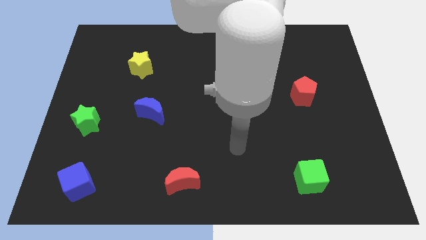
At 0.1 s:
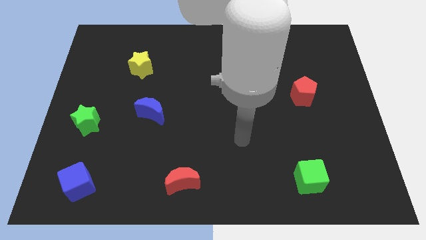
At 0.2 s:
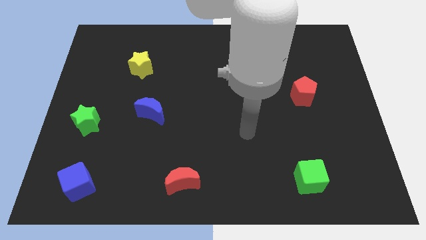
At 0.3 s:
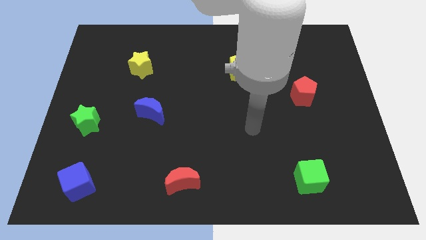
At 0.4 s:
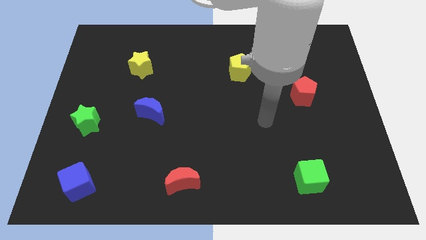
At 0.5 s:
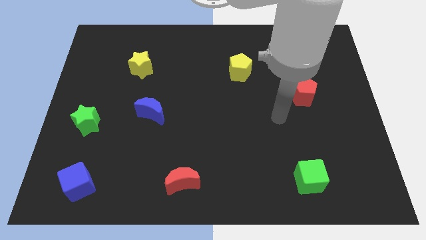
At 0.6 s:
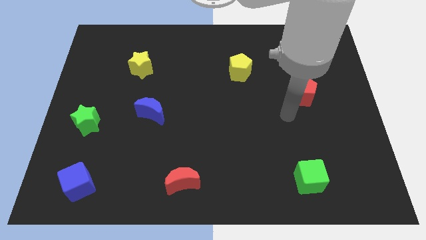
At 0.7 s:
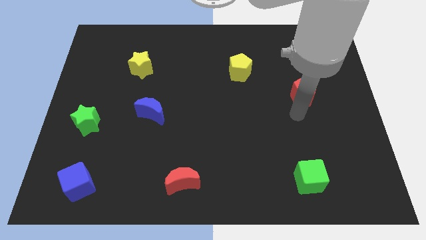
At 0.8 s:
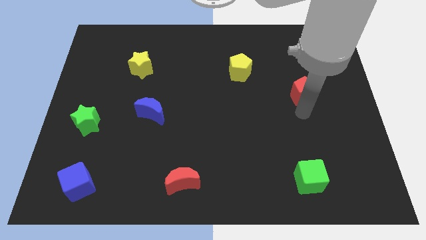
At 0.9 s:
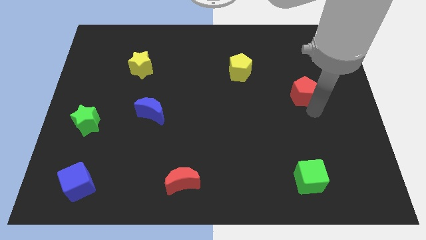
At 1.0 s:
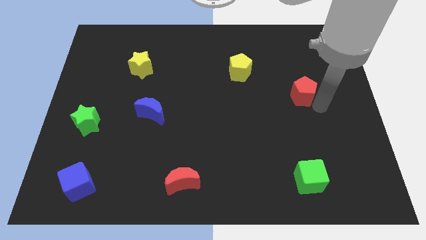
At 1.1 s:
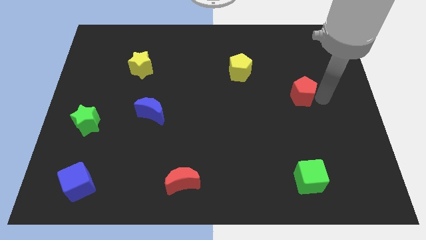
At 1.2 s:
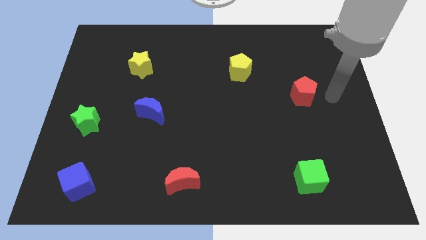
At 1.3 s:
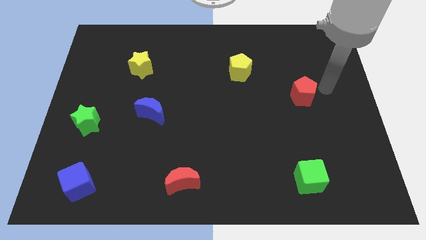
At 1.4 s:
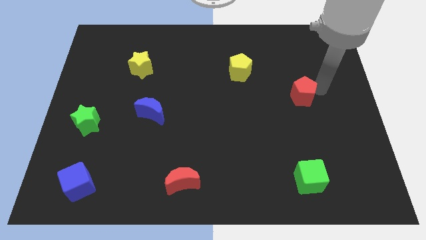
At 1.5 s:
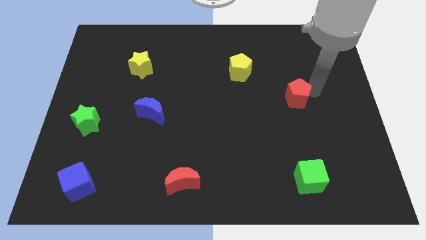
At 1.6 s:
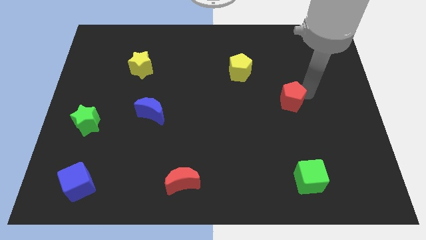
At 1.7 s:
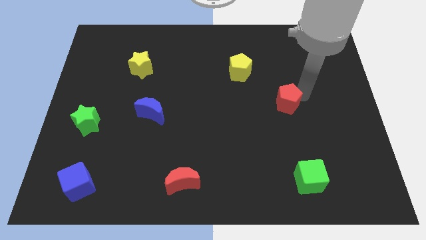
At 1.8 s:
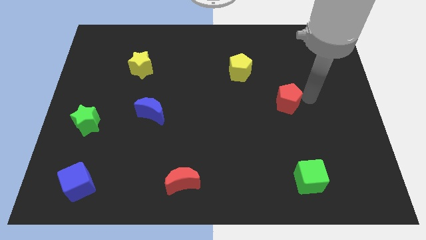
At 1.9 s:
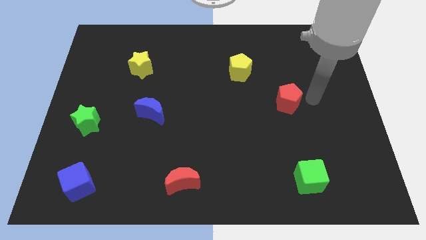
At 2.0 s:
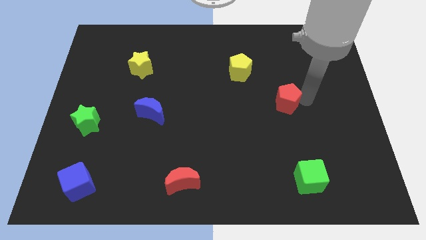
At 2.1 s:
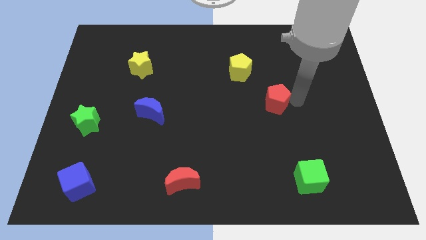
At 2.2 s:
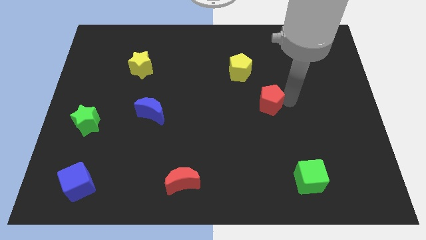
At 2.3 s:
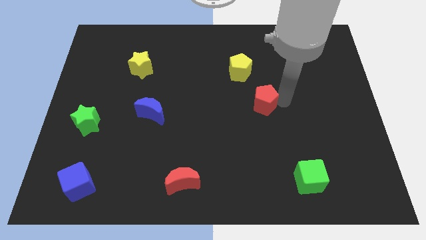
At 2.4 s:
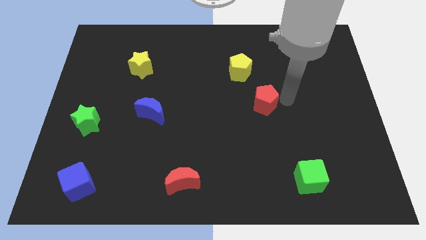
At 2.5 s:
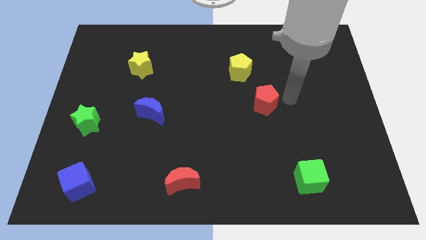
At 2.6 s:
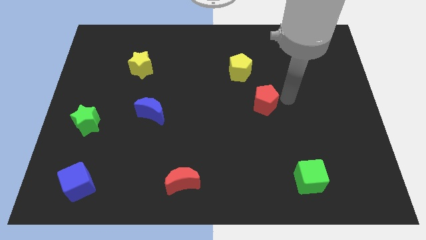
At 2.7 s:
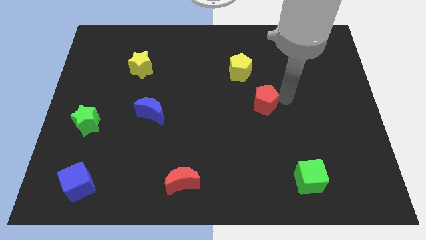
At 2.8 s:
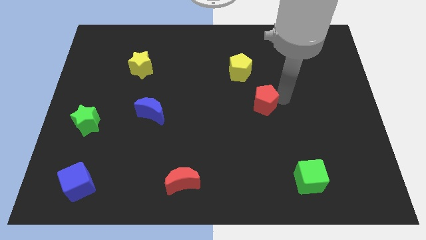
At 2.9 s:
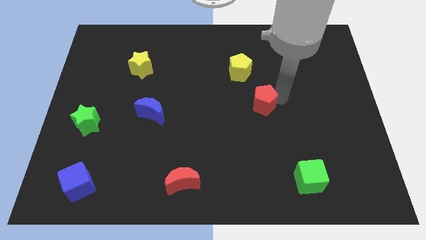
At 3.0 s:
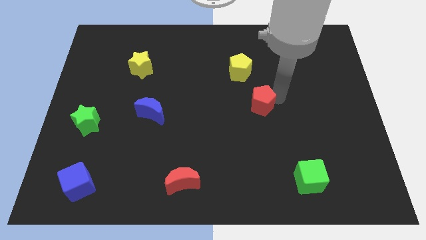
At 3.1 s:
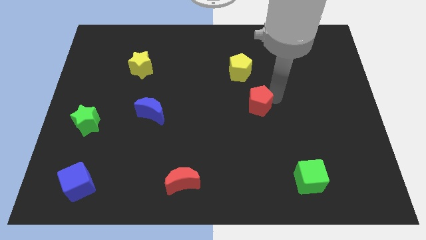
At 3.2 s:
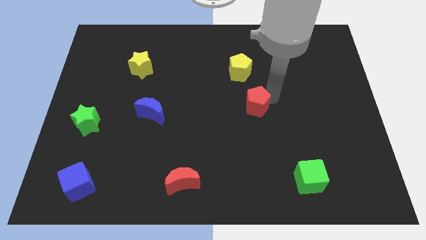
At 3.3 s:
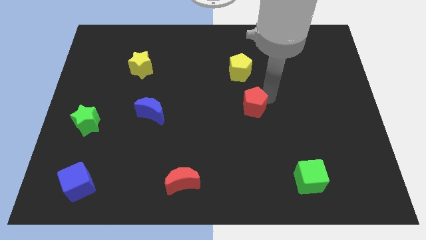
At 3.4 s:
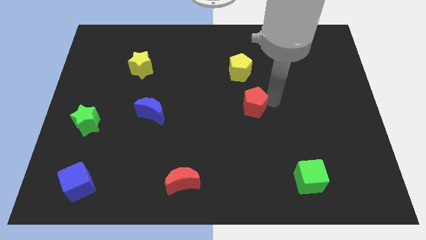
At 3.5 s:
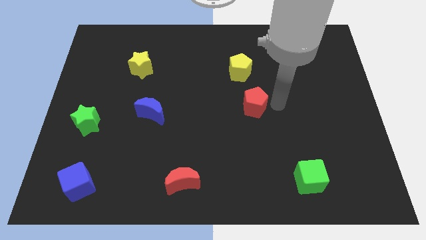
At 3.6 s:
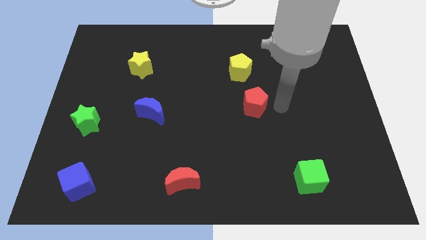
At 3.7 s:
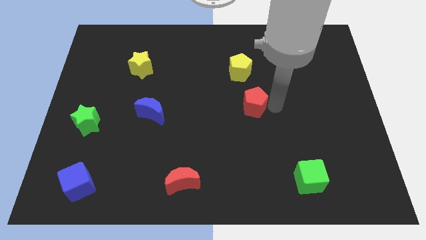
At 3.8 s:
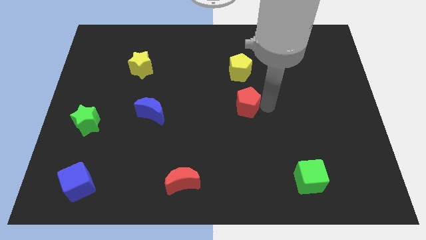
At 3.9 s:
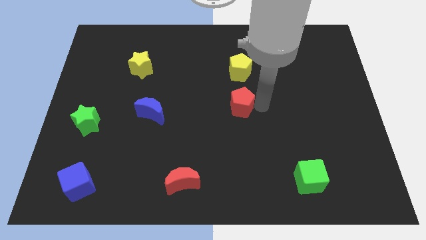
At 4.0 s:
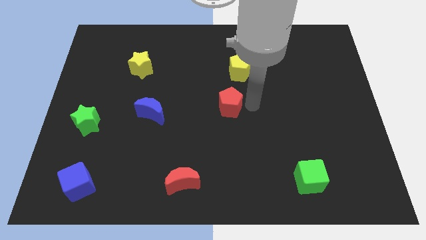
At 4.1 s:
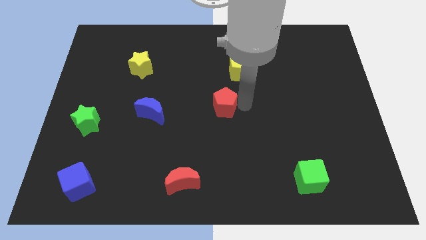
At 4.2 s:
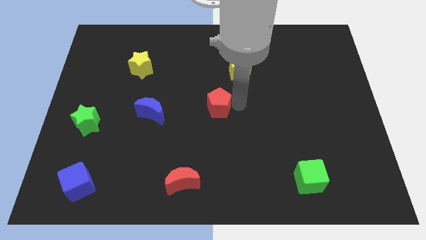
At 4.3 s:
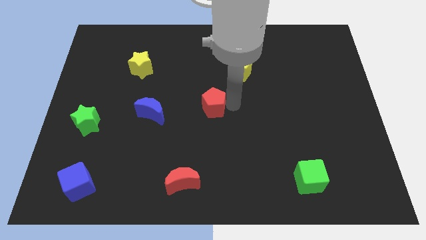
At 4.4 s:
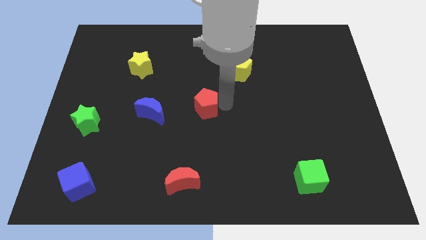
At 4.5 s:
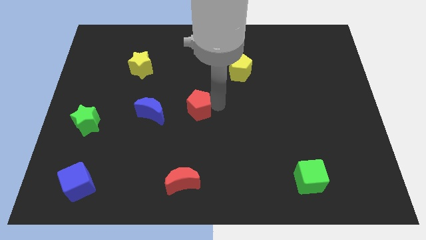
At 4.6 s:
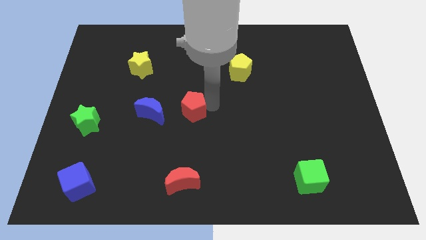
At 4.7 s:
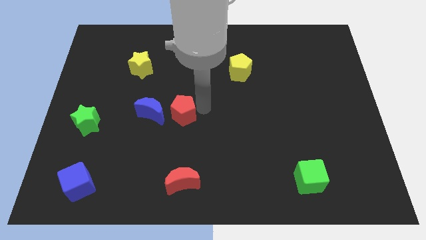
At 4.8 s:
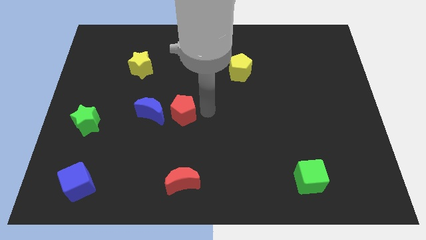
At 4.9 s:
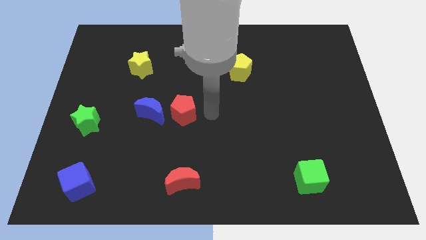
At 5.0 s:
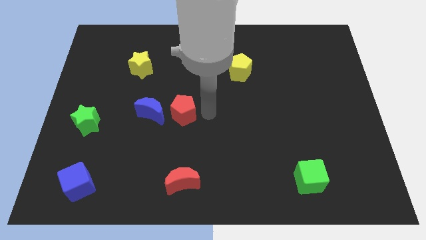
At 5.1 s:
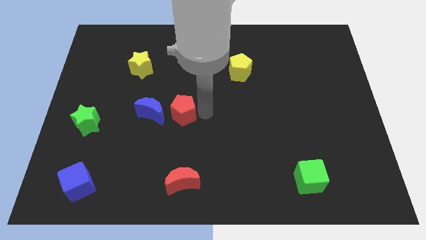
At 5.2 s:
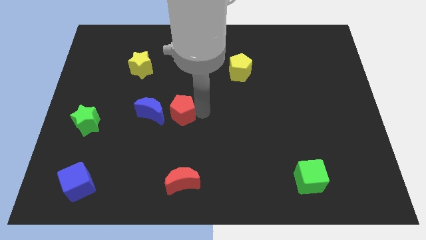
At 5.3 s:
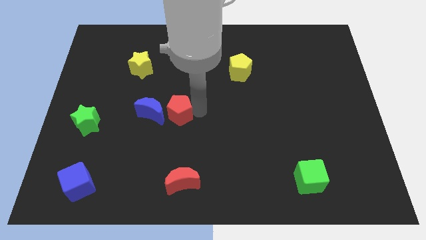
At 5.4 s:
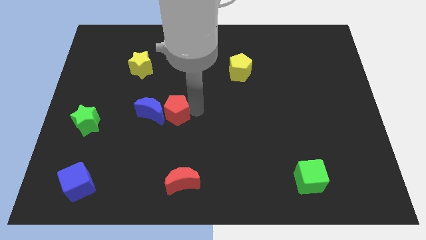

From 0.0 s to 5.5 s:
push the red pentagon to the blue moon

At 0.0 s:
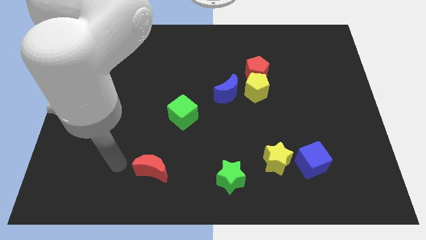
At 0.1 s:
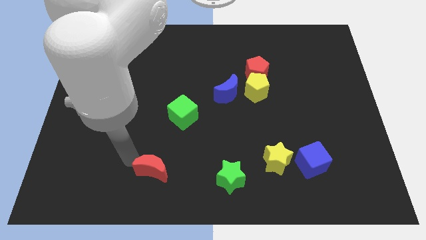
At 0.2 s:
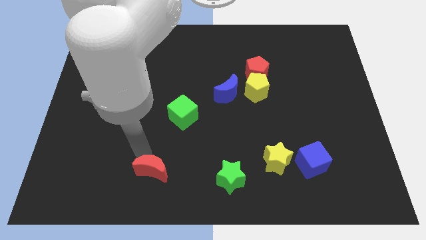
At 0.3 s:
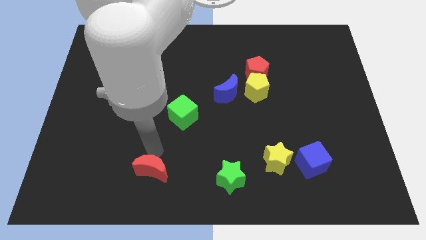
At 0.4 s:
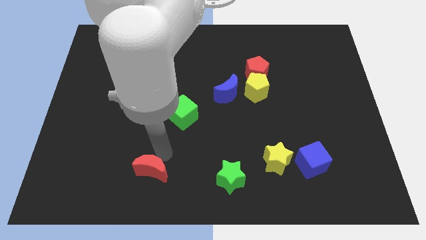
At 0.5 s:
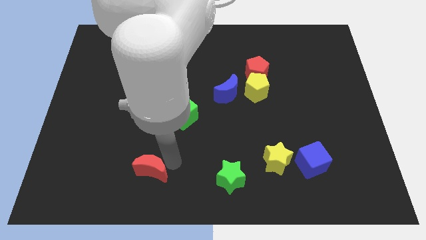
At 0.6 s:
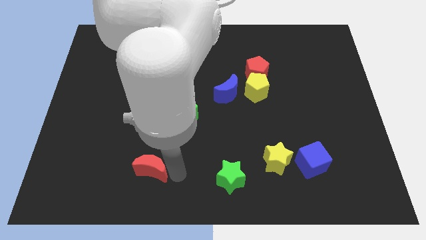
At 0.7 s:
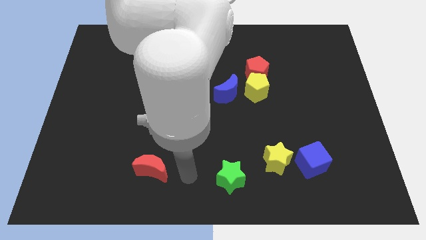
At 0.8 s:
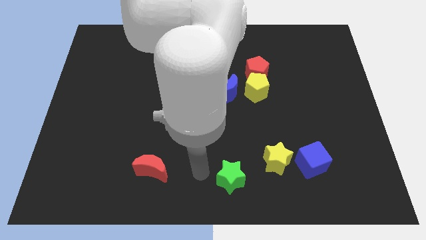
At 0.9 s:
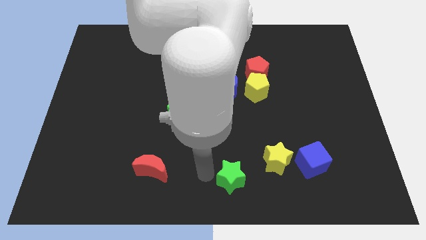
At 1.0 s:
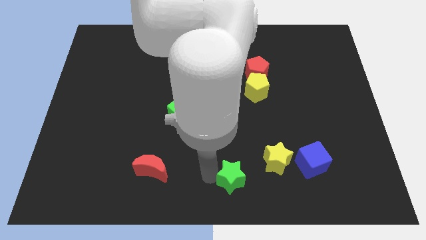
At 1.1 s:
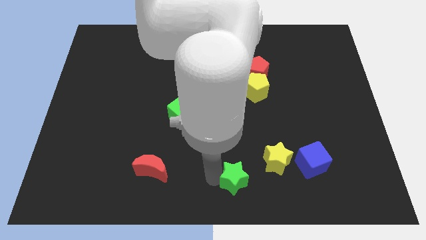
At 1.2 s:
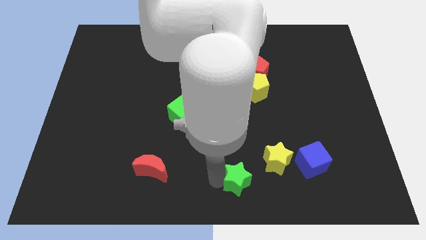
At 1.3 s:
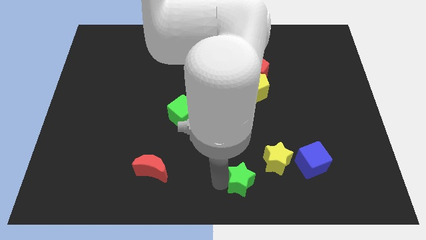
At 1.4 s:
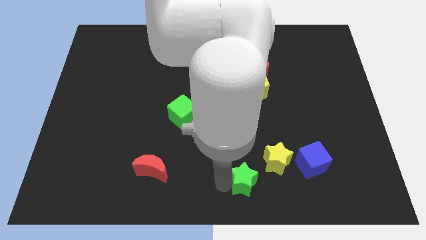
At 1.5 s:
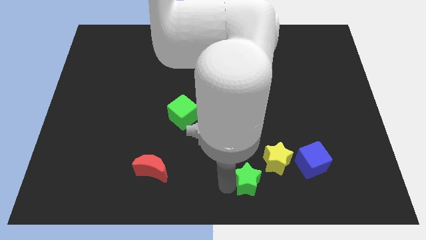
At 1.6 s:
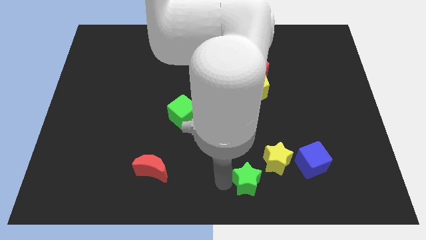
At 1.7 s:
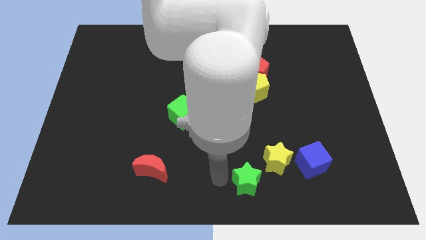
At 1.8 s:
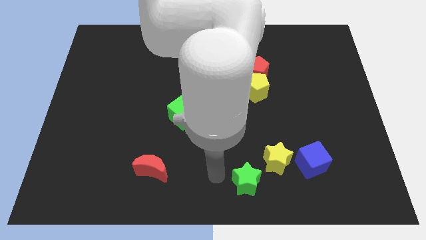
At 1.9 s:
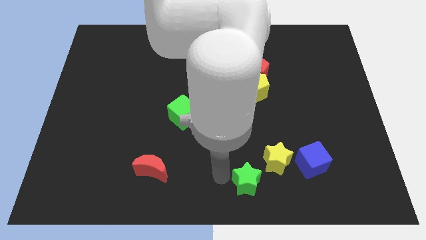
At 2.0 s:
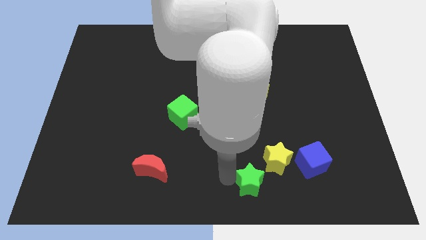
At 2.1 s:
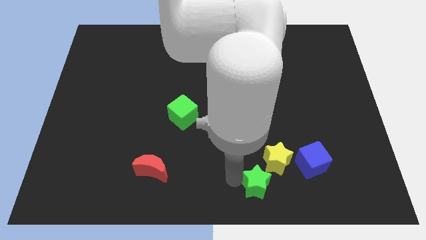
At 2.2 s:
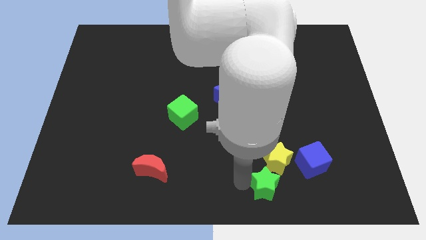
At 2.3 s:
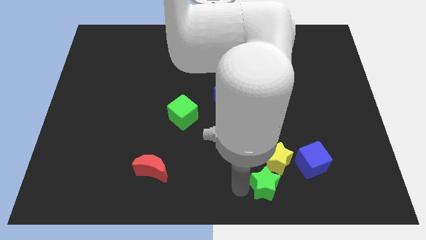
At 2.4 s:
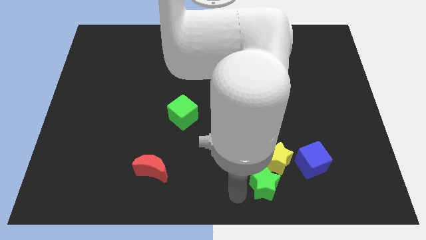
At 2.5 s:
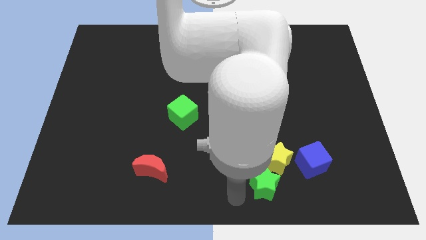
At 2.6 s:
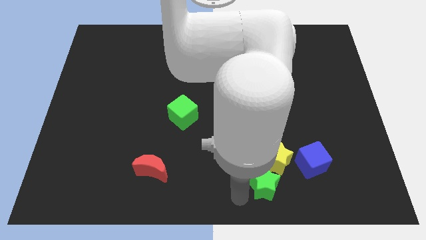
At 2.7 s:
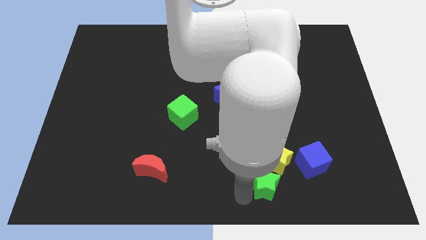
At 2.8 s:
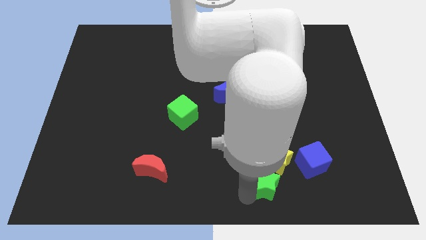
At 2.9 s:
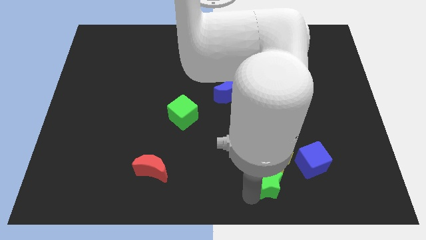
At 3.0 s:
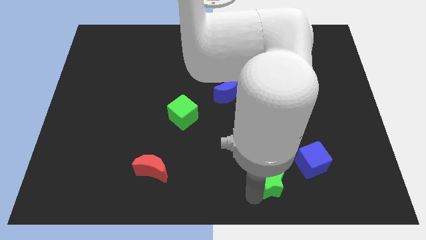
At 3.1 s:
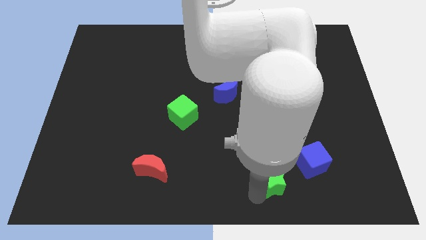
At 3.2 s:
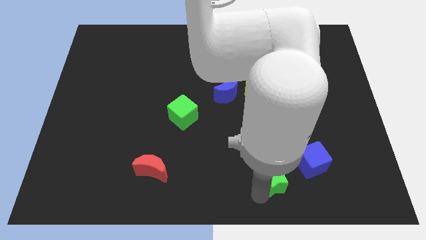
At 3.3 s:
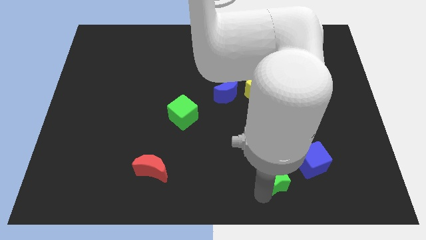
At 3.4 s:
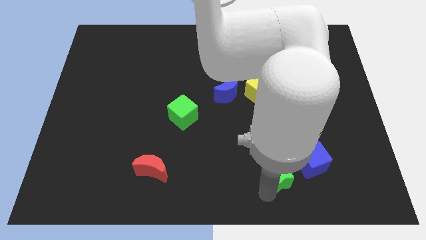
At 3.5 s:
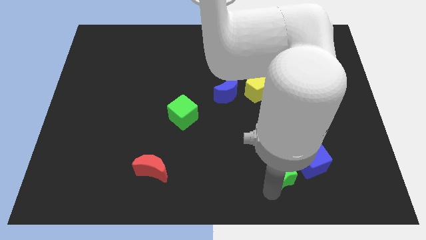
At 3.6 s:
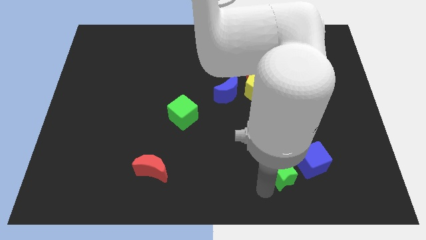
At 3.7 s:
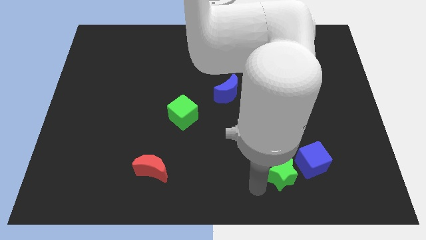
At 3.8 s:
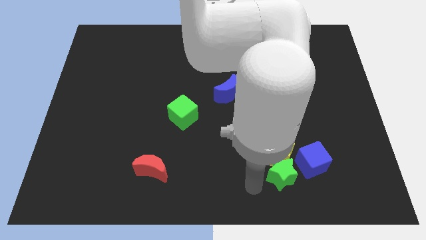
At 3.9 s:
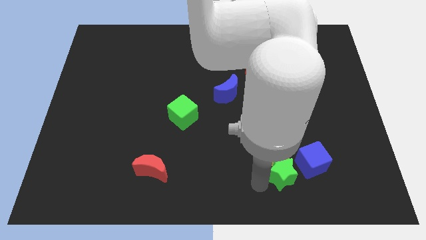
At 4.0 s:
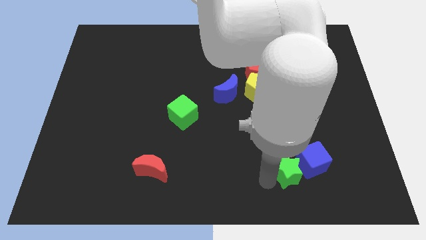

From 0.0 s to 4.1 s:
put the green star close to the blue cube
